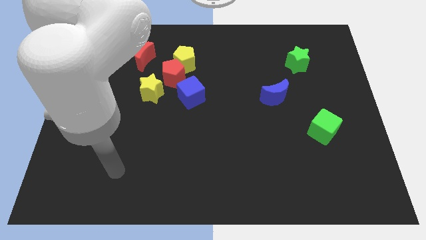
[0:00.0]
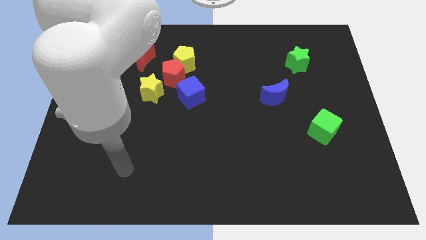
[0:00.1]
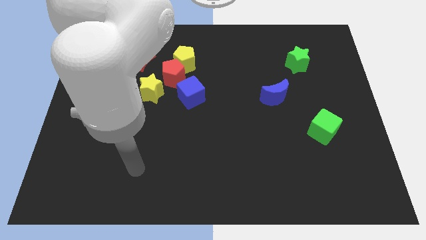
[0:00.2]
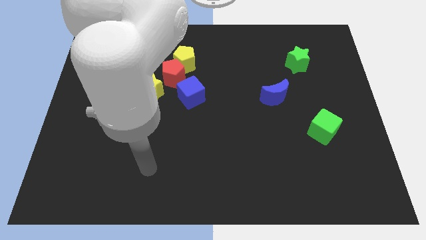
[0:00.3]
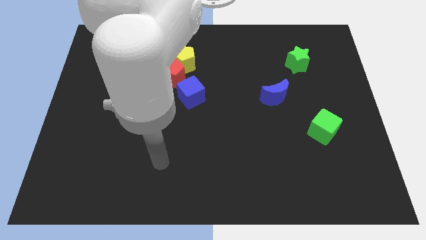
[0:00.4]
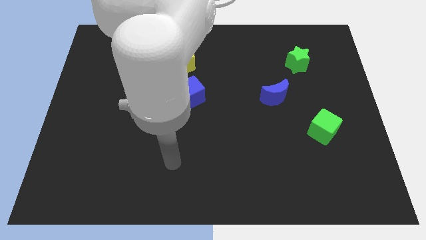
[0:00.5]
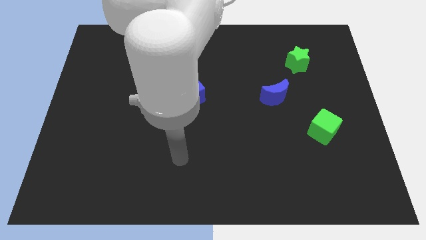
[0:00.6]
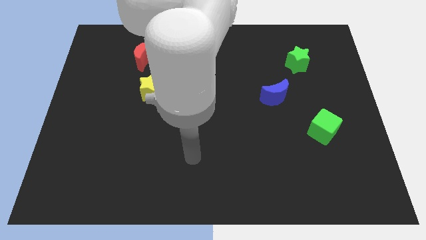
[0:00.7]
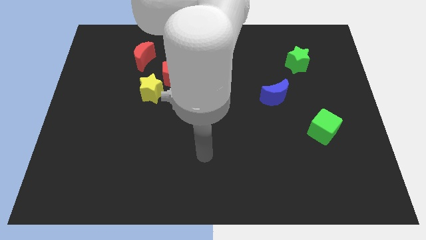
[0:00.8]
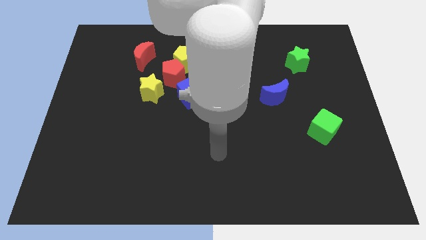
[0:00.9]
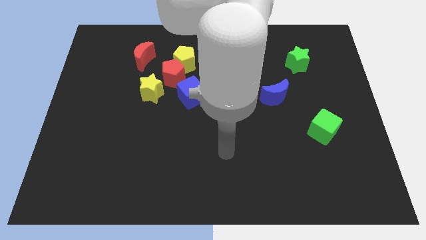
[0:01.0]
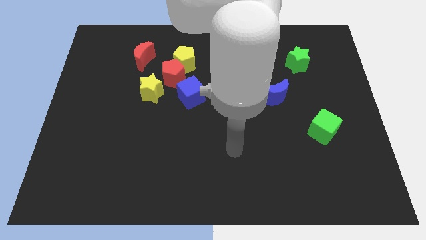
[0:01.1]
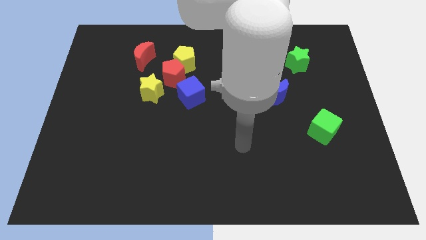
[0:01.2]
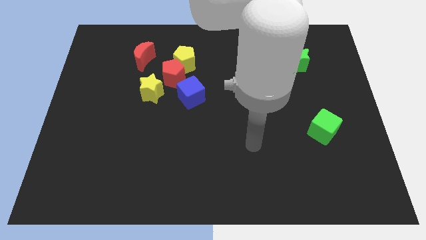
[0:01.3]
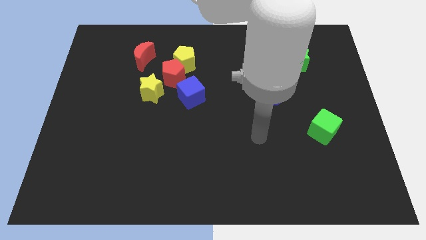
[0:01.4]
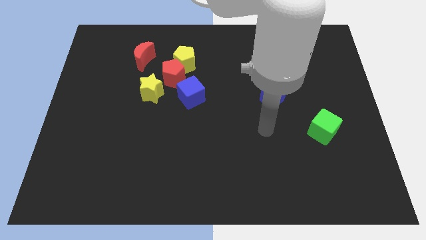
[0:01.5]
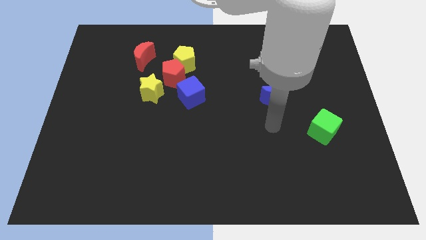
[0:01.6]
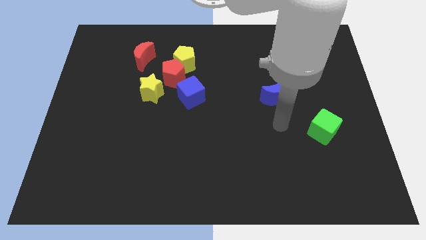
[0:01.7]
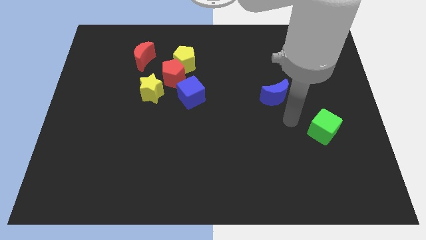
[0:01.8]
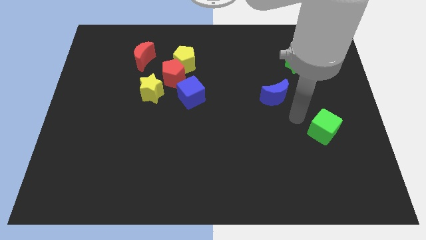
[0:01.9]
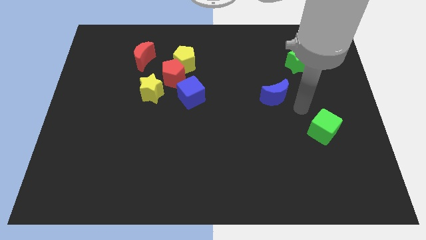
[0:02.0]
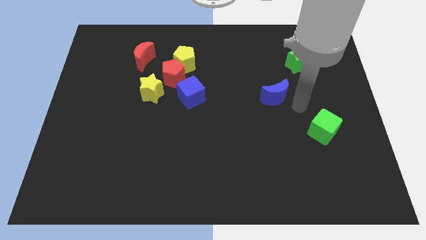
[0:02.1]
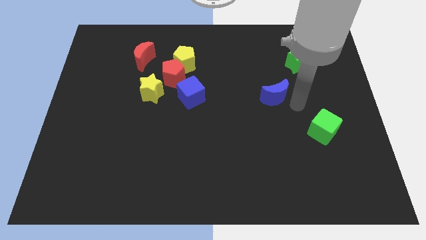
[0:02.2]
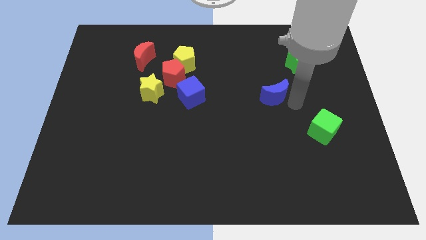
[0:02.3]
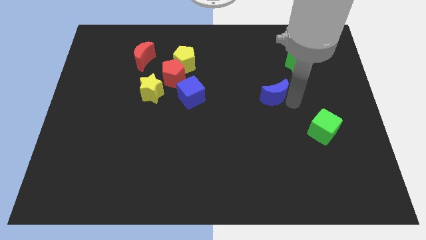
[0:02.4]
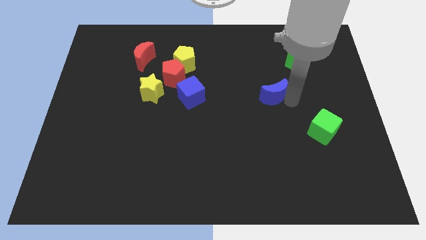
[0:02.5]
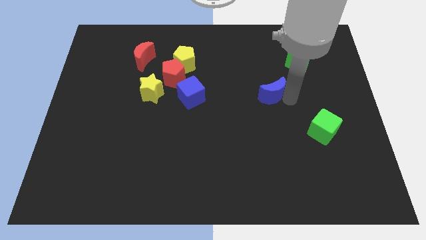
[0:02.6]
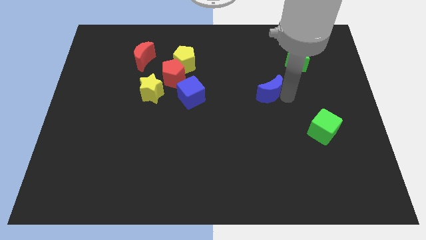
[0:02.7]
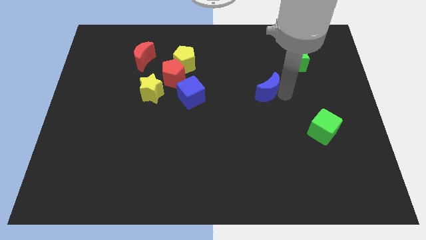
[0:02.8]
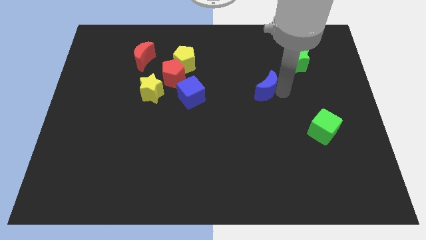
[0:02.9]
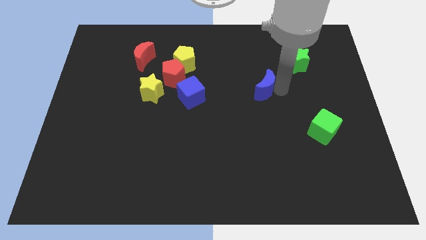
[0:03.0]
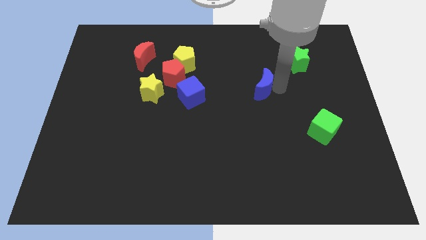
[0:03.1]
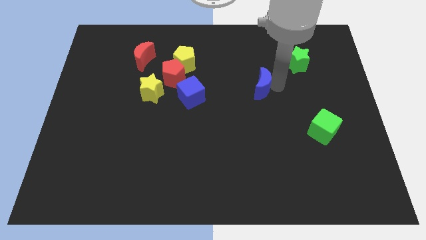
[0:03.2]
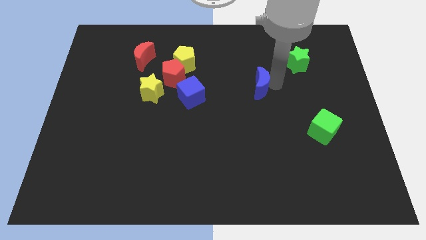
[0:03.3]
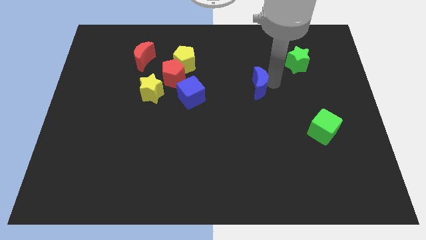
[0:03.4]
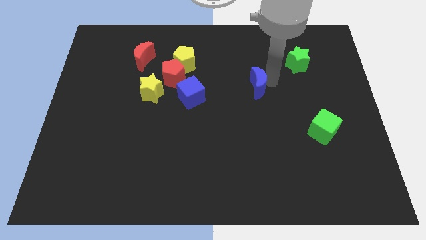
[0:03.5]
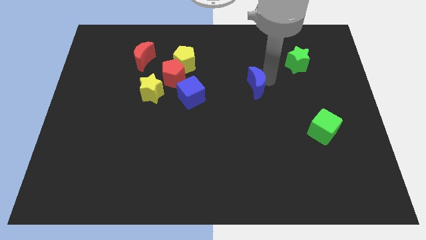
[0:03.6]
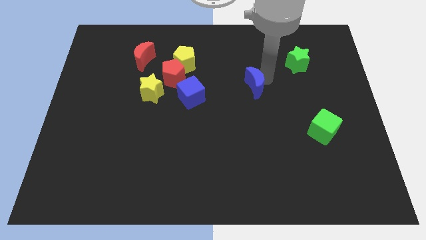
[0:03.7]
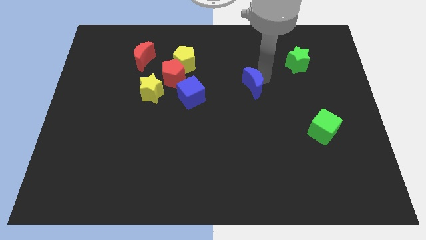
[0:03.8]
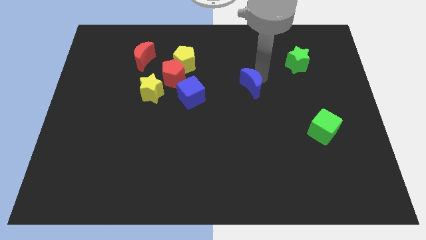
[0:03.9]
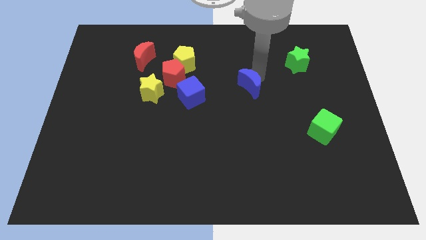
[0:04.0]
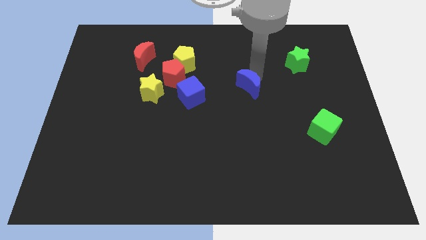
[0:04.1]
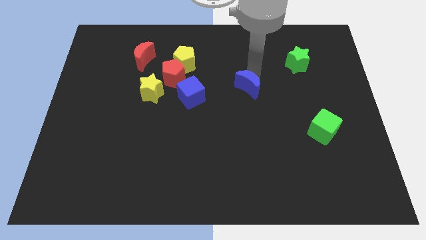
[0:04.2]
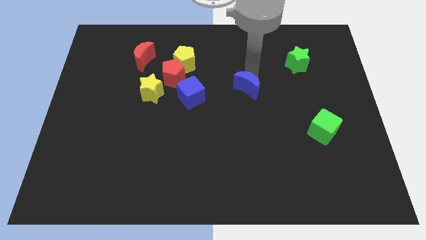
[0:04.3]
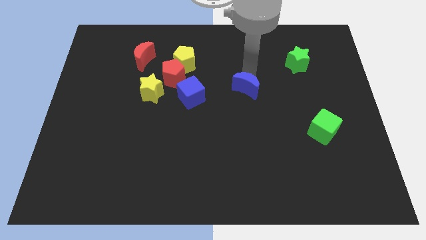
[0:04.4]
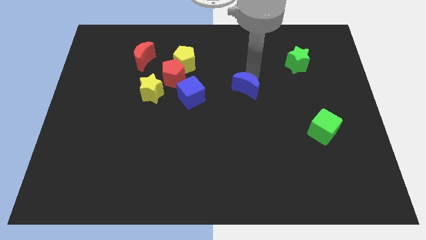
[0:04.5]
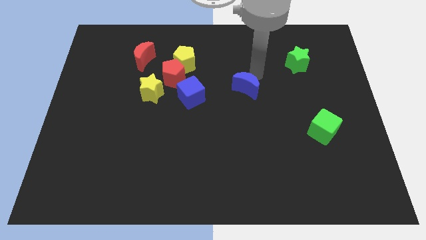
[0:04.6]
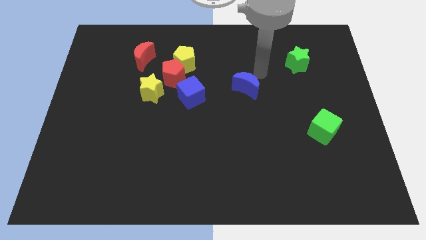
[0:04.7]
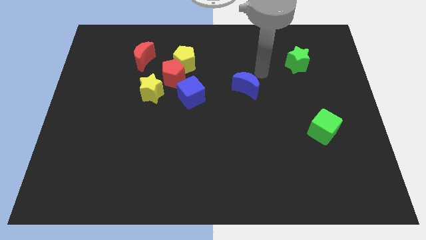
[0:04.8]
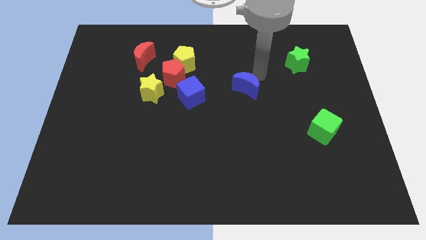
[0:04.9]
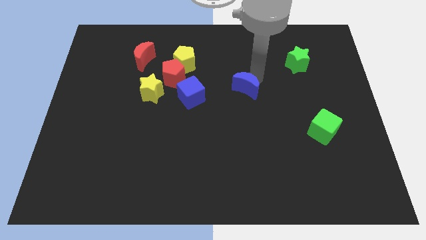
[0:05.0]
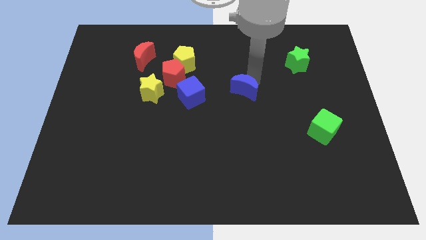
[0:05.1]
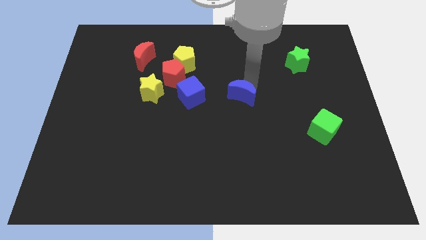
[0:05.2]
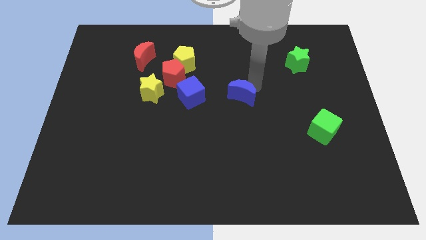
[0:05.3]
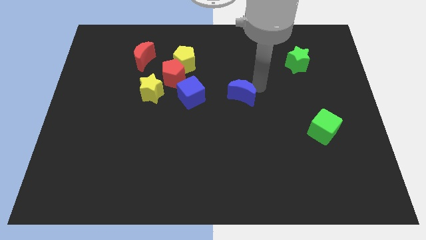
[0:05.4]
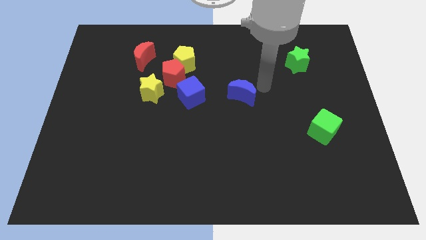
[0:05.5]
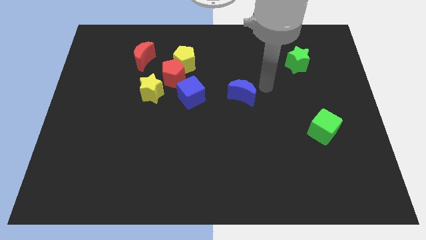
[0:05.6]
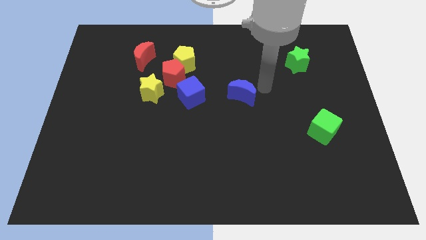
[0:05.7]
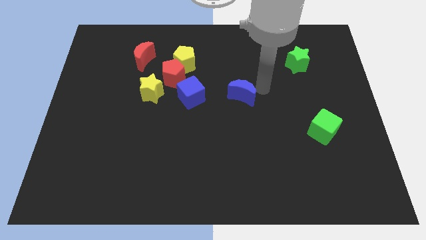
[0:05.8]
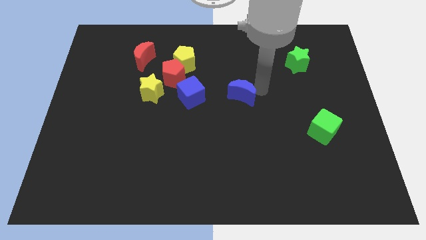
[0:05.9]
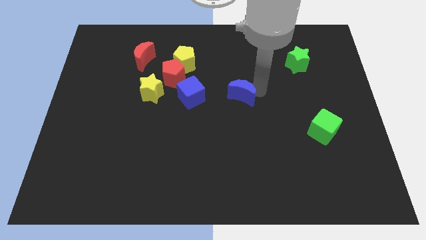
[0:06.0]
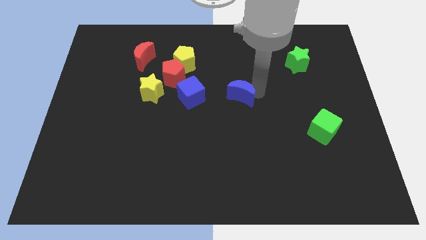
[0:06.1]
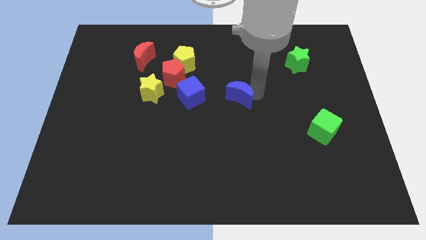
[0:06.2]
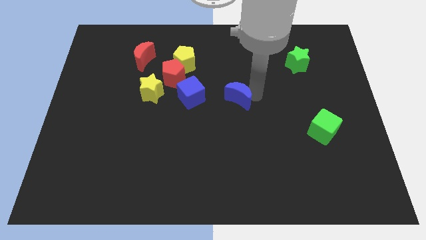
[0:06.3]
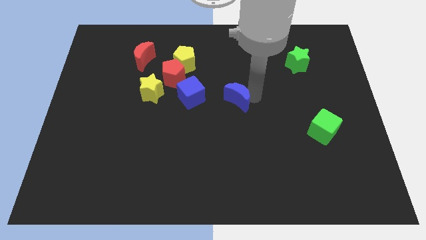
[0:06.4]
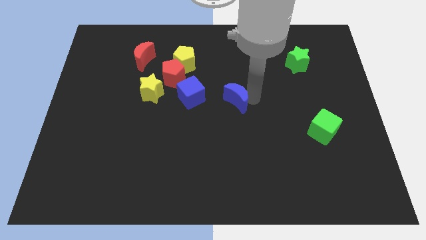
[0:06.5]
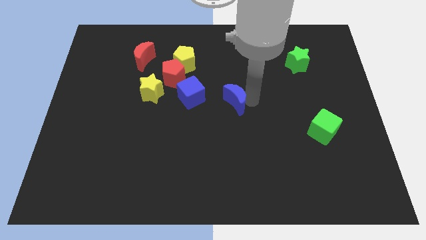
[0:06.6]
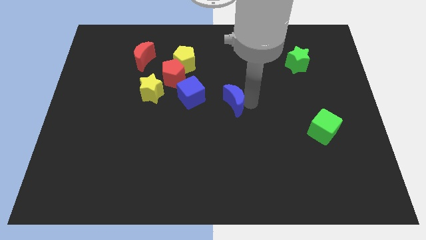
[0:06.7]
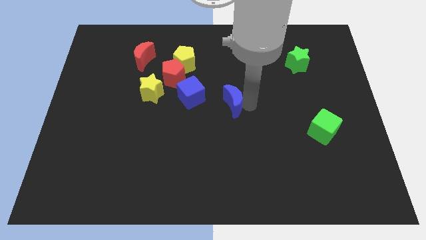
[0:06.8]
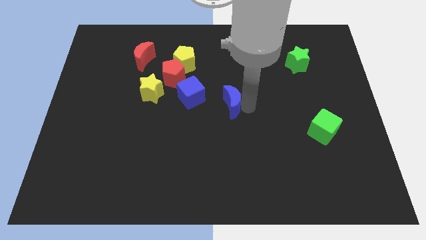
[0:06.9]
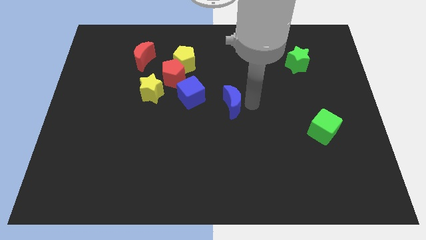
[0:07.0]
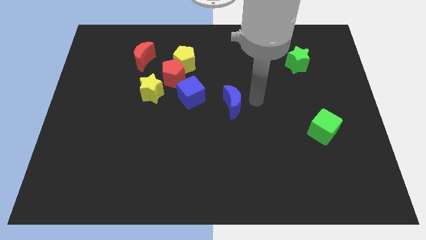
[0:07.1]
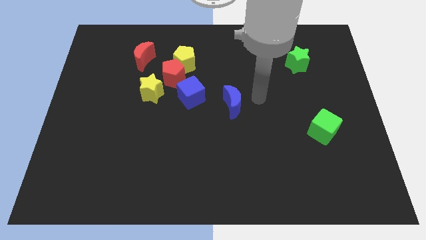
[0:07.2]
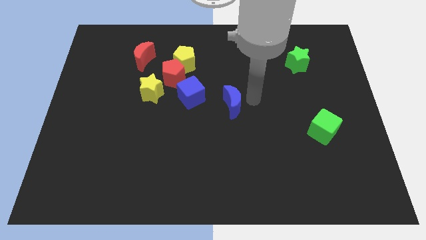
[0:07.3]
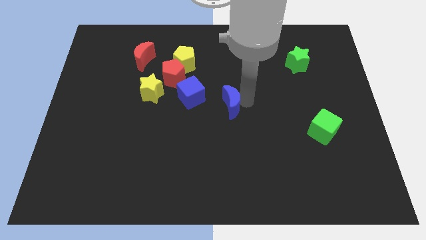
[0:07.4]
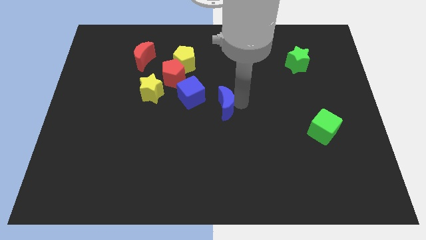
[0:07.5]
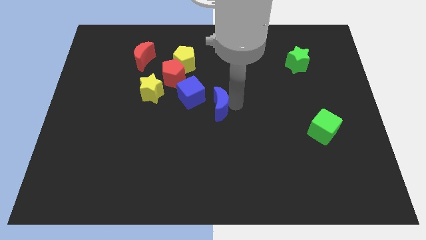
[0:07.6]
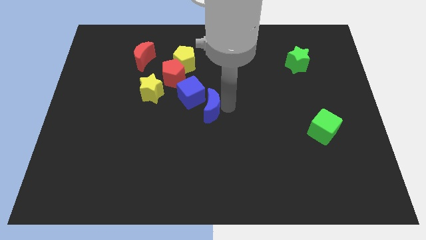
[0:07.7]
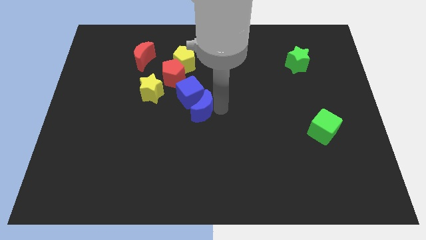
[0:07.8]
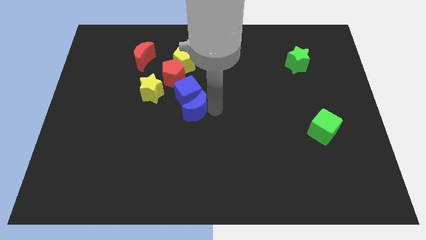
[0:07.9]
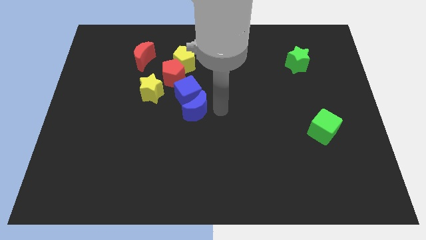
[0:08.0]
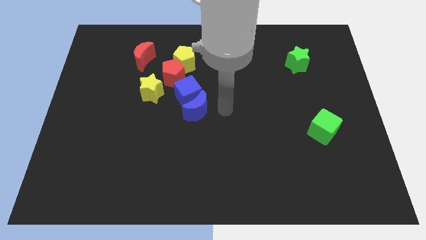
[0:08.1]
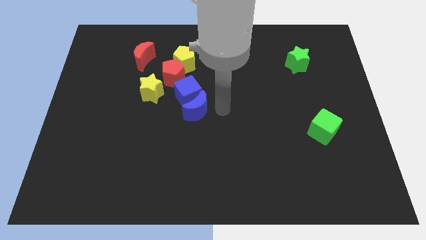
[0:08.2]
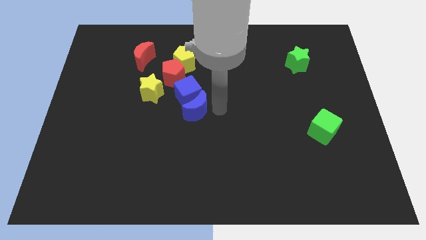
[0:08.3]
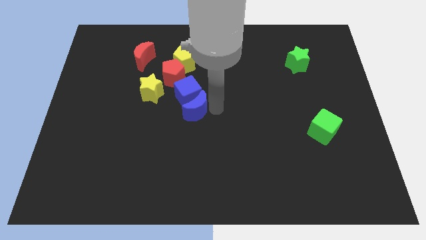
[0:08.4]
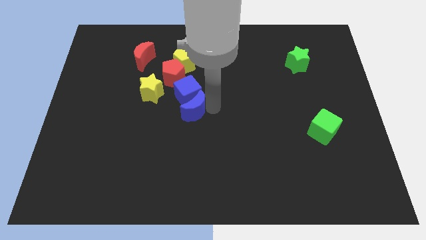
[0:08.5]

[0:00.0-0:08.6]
move the blue moon to the bottom left side of the blue cube
